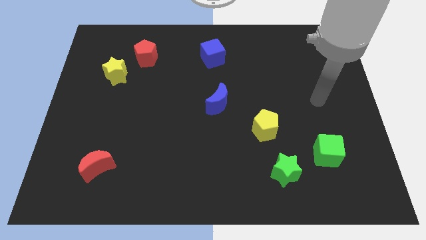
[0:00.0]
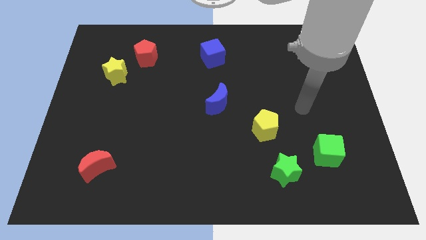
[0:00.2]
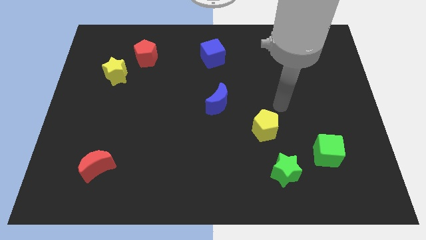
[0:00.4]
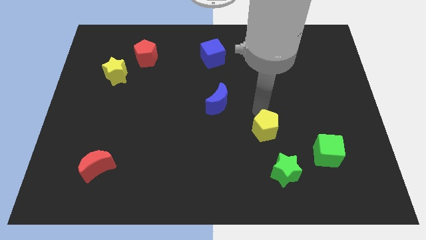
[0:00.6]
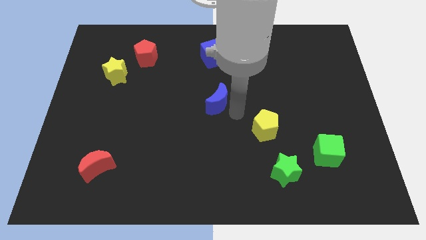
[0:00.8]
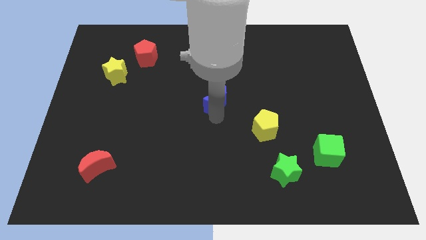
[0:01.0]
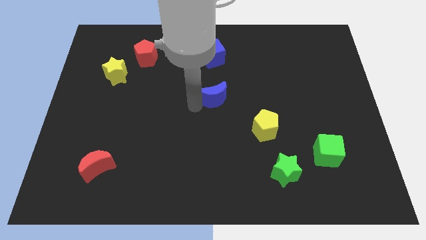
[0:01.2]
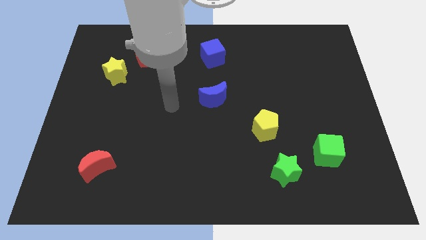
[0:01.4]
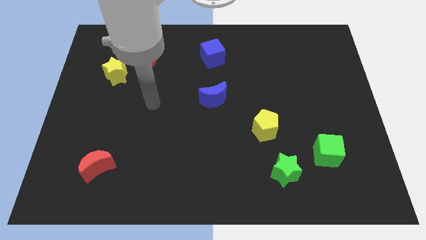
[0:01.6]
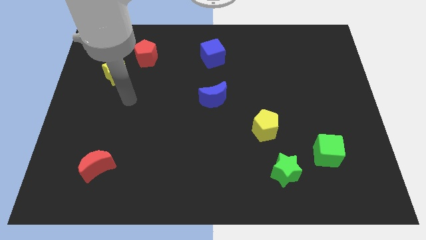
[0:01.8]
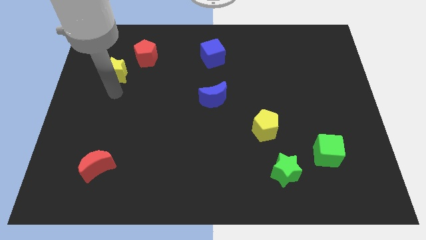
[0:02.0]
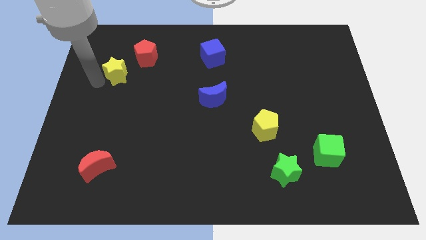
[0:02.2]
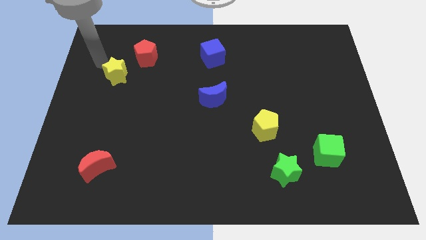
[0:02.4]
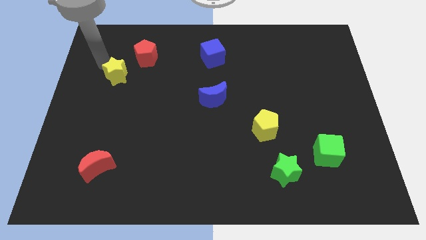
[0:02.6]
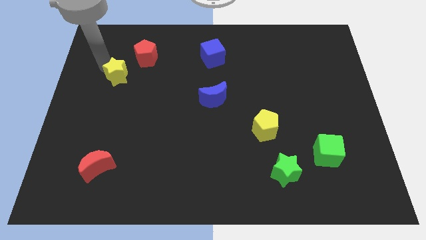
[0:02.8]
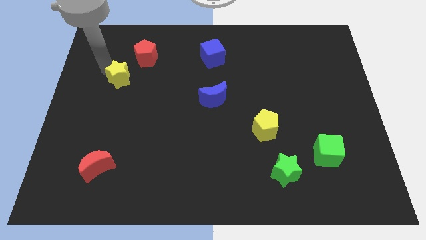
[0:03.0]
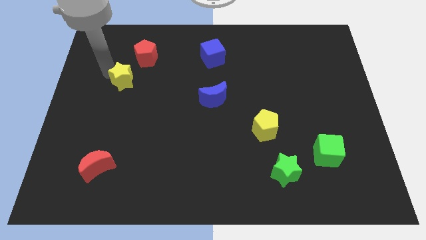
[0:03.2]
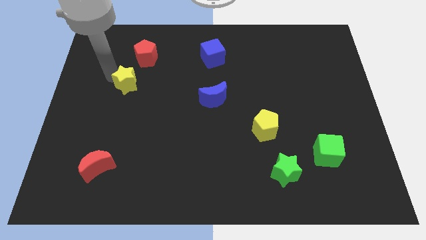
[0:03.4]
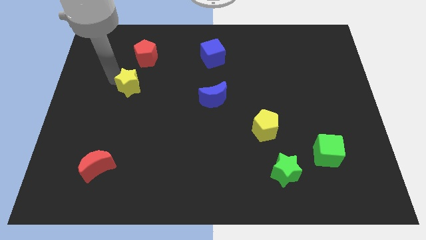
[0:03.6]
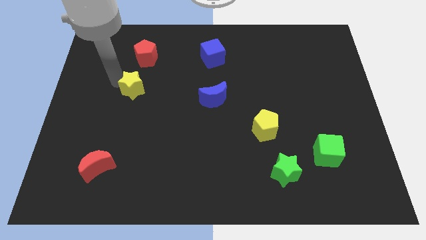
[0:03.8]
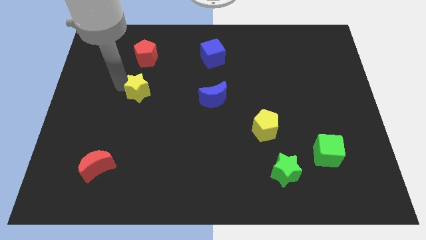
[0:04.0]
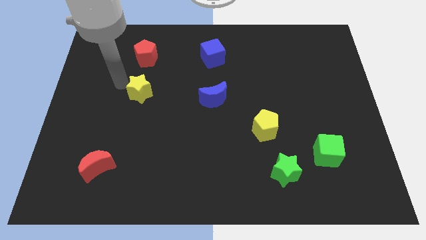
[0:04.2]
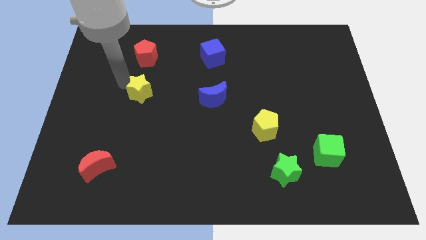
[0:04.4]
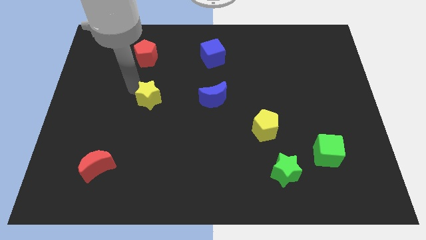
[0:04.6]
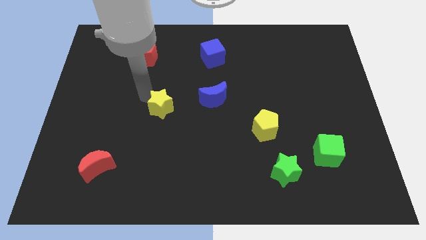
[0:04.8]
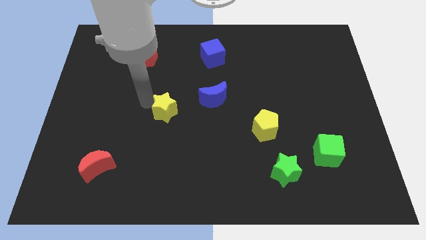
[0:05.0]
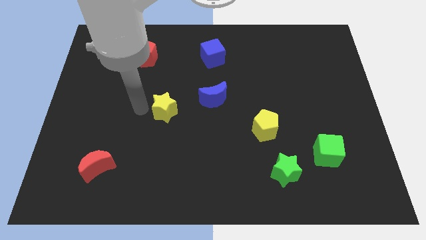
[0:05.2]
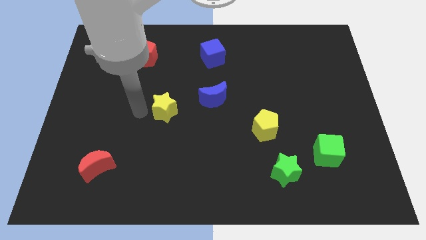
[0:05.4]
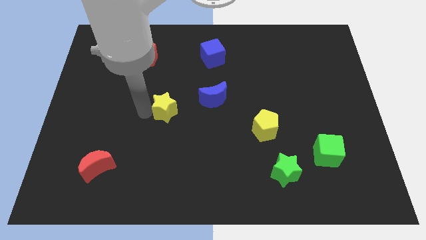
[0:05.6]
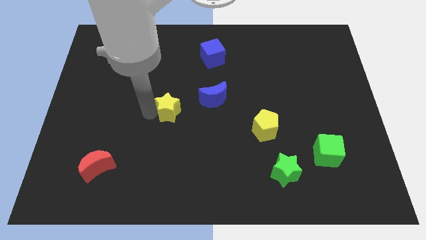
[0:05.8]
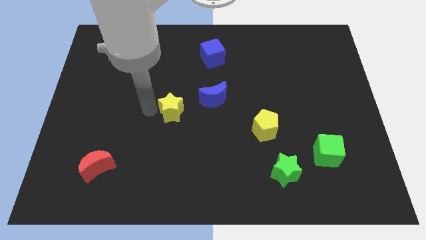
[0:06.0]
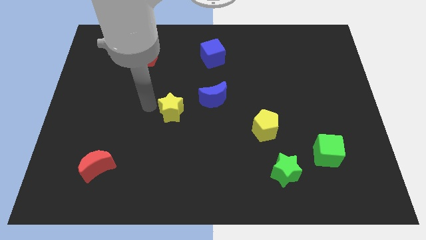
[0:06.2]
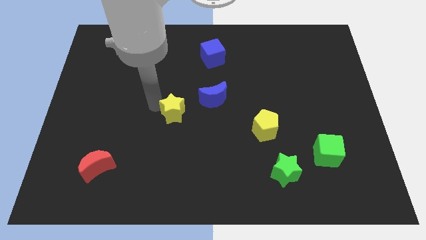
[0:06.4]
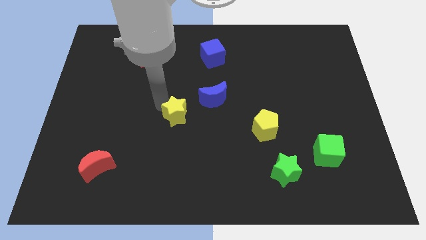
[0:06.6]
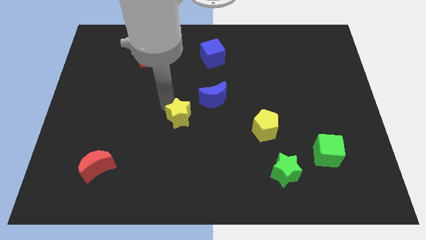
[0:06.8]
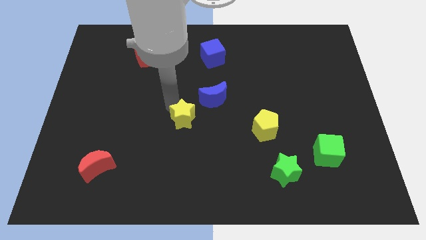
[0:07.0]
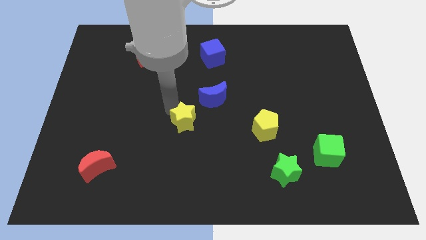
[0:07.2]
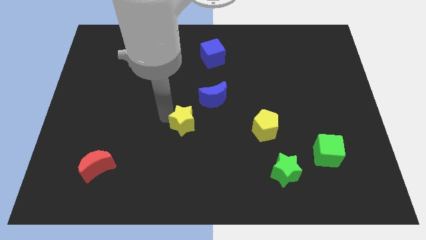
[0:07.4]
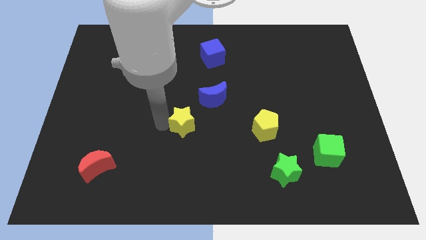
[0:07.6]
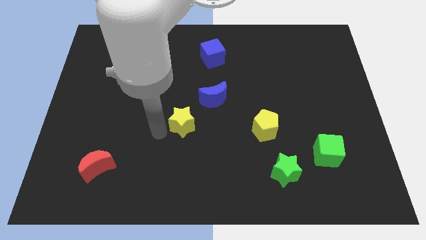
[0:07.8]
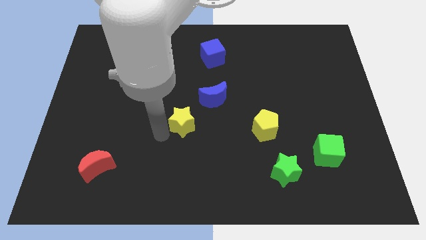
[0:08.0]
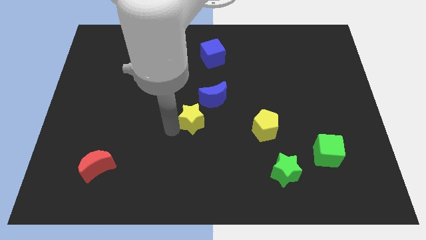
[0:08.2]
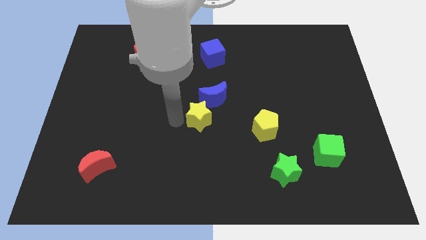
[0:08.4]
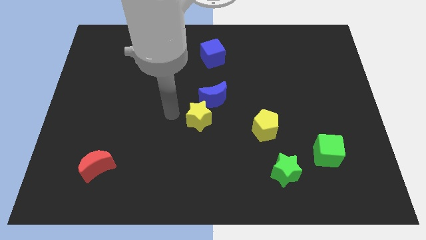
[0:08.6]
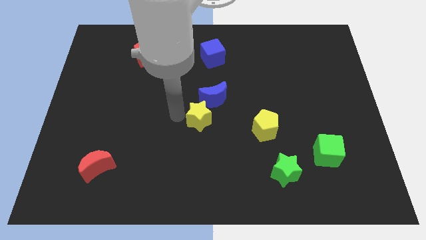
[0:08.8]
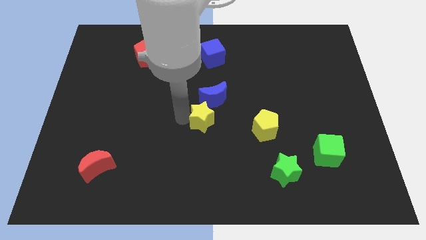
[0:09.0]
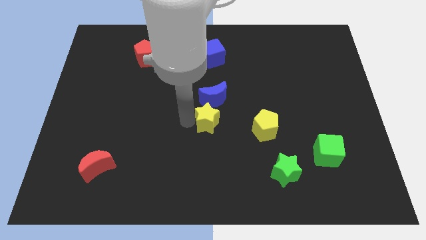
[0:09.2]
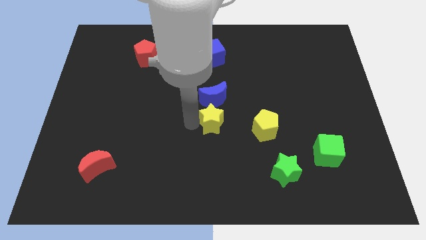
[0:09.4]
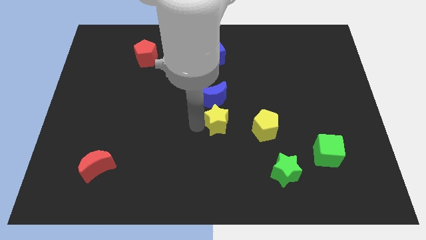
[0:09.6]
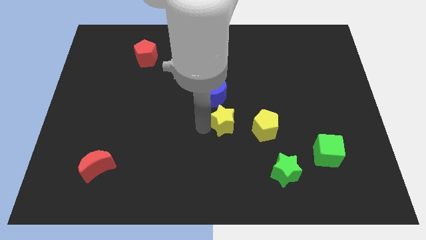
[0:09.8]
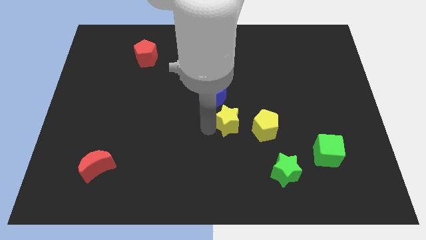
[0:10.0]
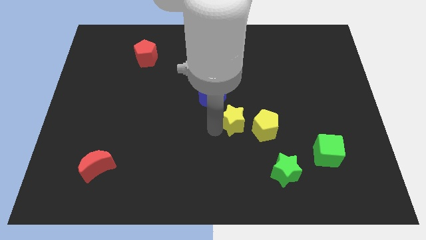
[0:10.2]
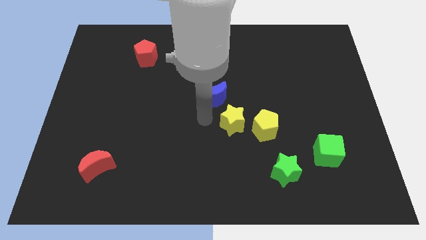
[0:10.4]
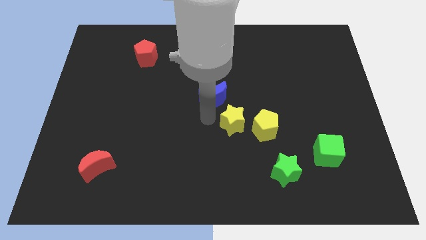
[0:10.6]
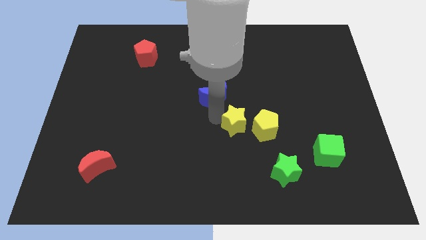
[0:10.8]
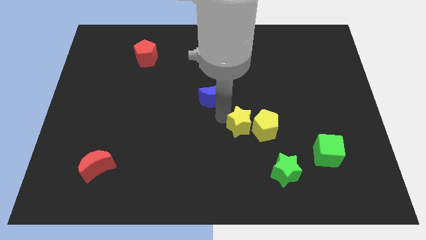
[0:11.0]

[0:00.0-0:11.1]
move the yellow star to the yellow pentagon

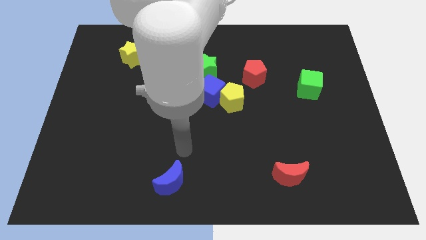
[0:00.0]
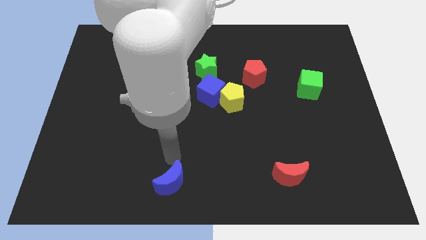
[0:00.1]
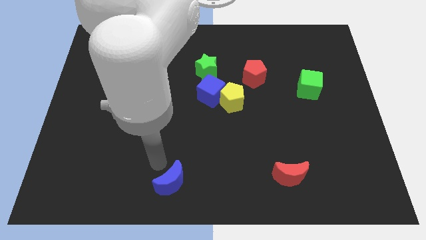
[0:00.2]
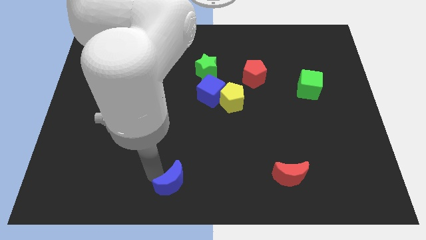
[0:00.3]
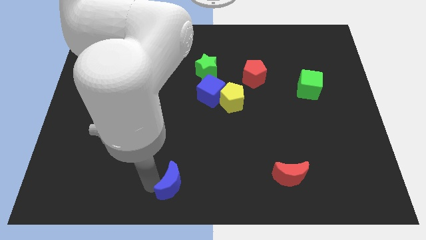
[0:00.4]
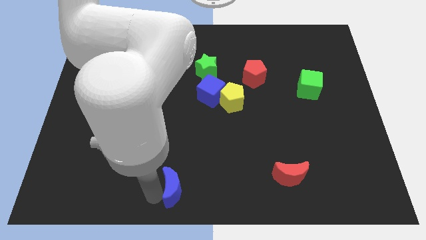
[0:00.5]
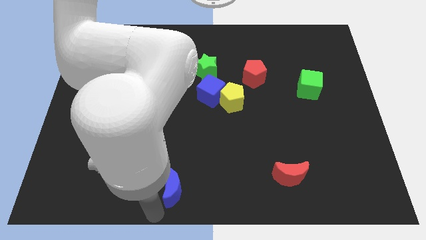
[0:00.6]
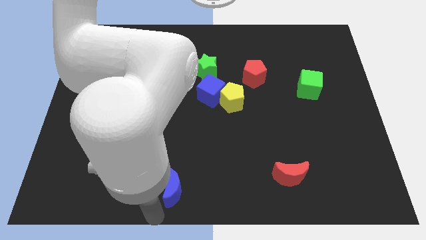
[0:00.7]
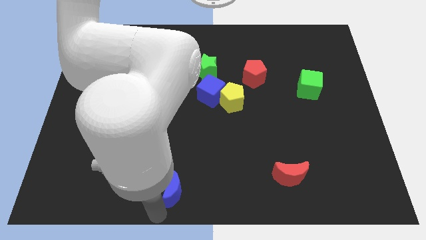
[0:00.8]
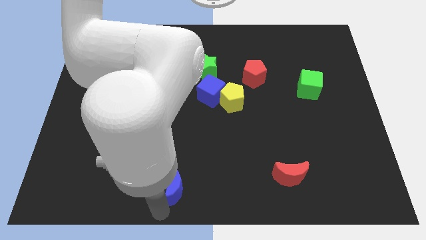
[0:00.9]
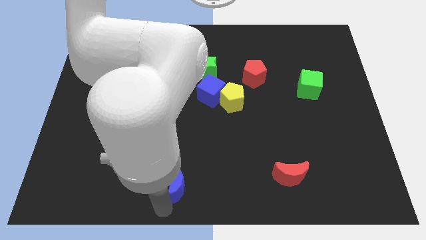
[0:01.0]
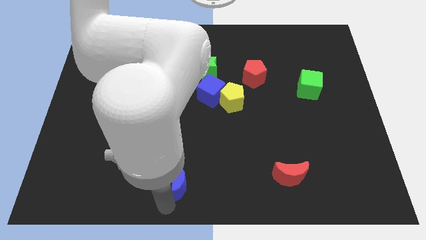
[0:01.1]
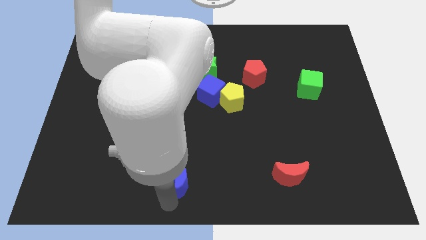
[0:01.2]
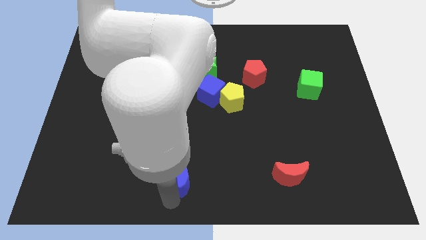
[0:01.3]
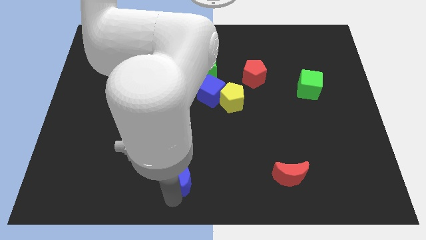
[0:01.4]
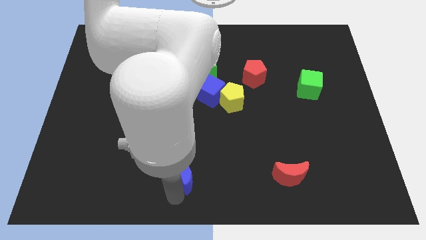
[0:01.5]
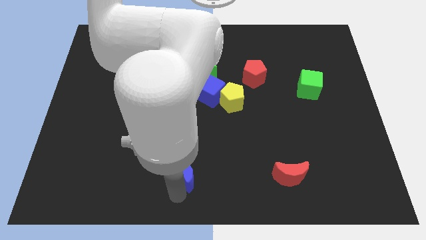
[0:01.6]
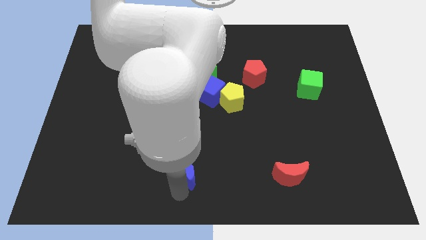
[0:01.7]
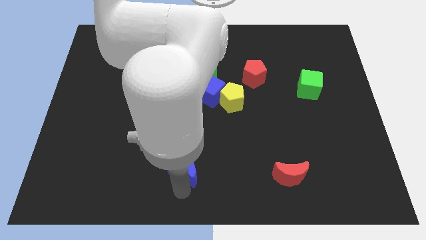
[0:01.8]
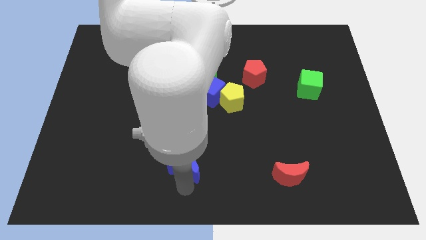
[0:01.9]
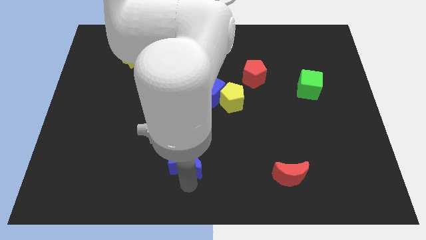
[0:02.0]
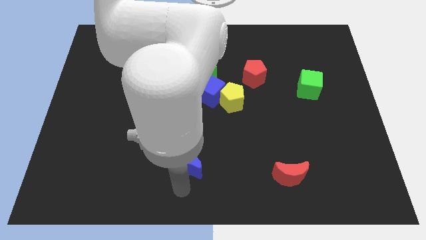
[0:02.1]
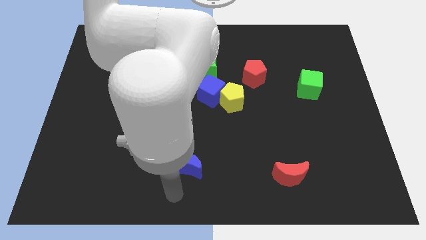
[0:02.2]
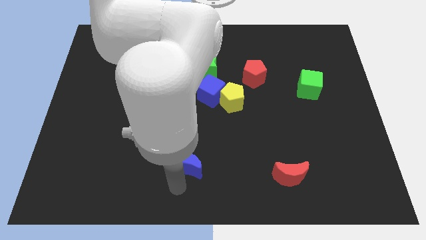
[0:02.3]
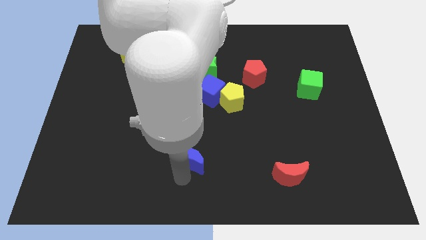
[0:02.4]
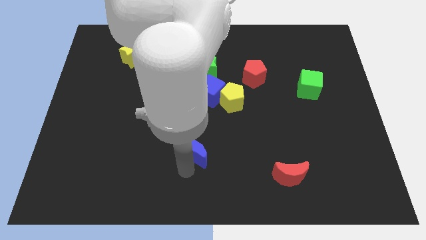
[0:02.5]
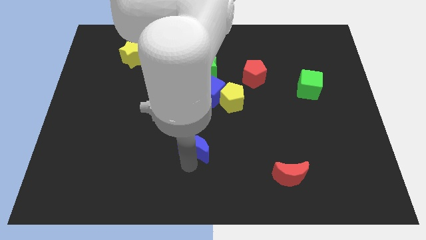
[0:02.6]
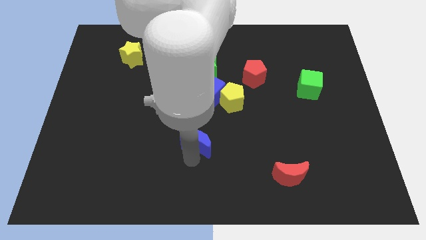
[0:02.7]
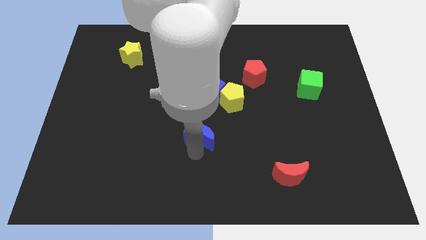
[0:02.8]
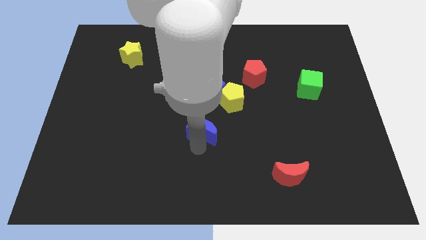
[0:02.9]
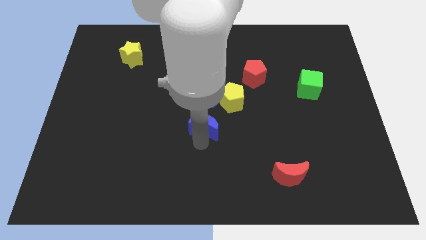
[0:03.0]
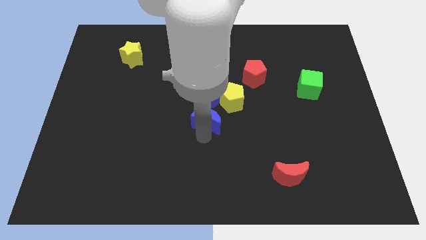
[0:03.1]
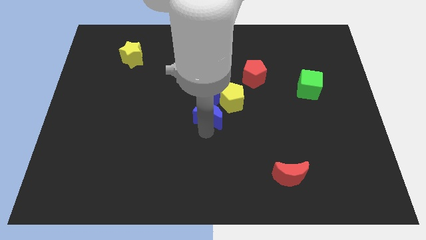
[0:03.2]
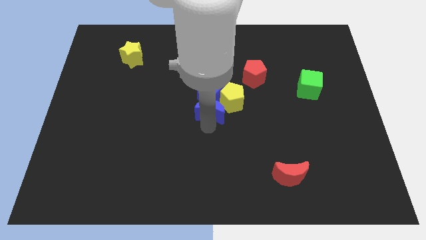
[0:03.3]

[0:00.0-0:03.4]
push the blue moon to the blue cube
